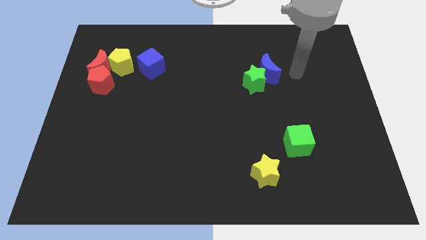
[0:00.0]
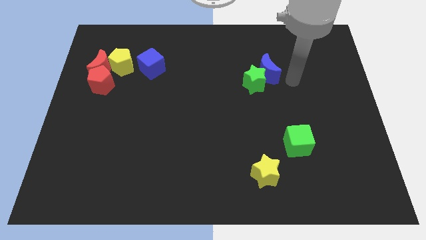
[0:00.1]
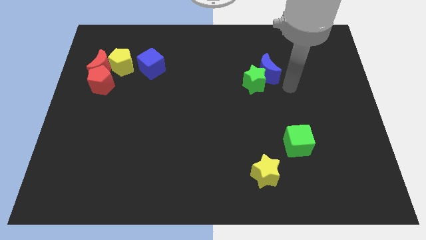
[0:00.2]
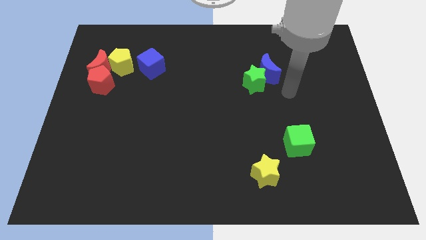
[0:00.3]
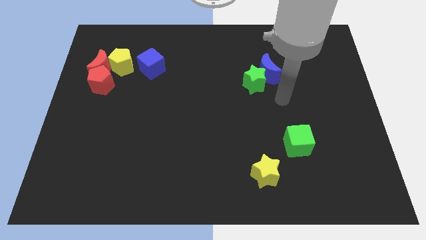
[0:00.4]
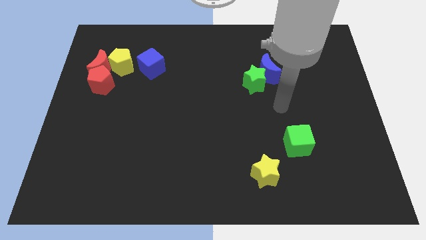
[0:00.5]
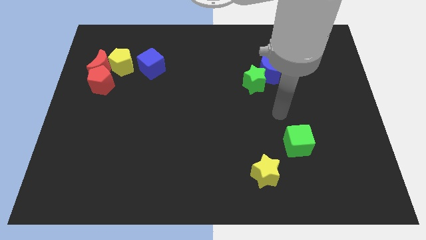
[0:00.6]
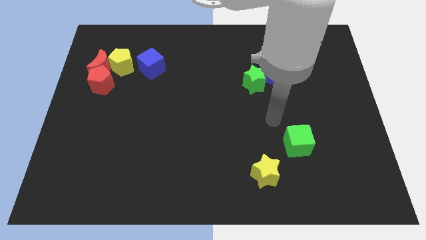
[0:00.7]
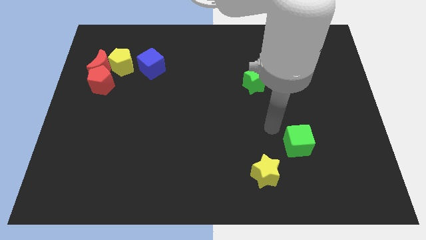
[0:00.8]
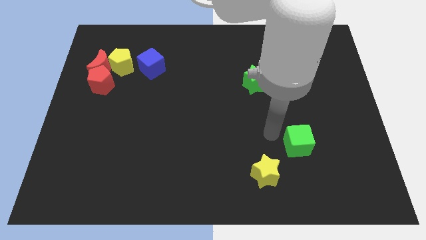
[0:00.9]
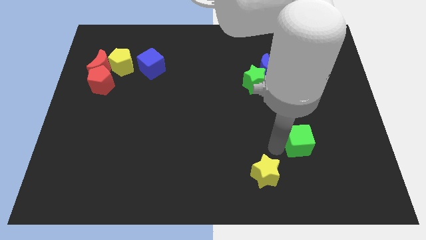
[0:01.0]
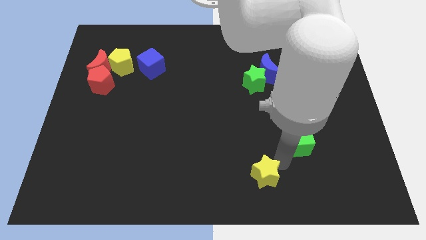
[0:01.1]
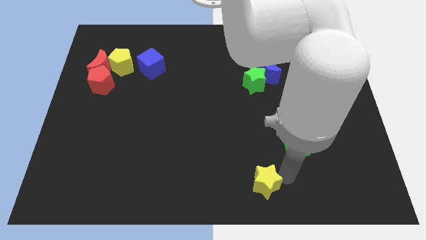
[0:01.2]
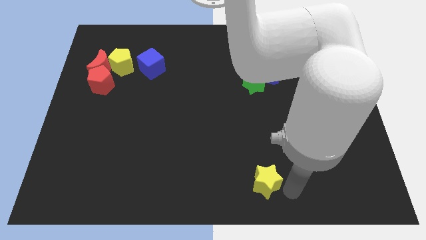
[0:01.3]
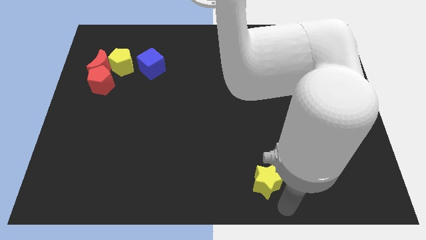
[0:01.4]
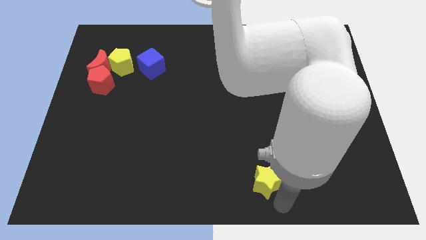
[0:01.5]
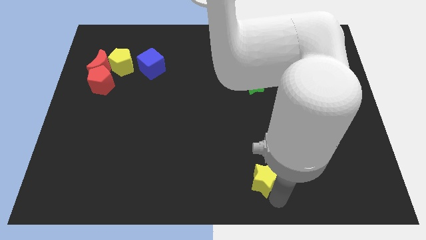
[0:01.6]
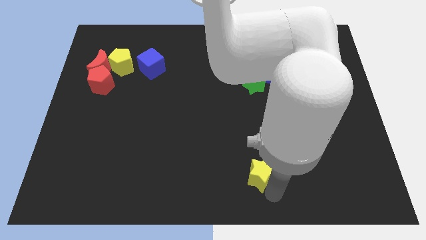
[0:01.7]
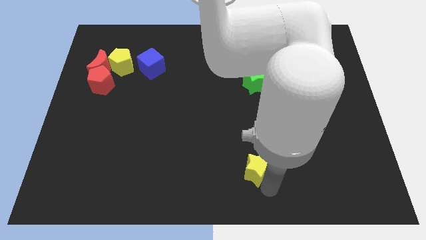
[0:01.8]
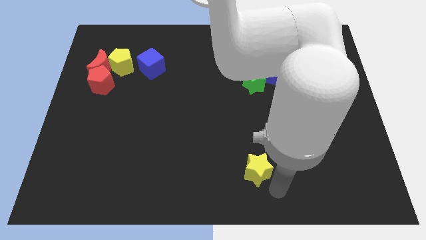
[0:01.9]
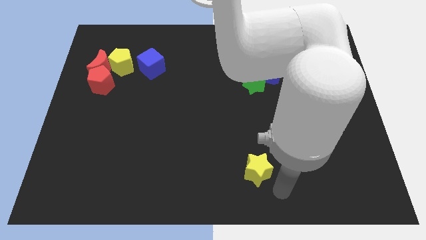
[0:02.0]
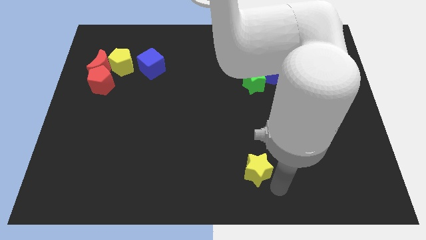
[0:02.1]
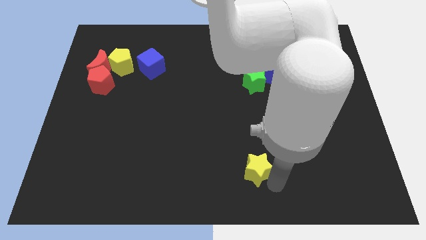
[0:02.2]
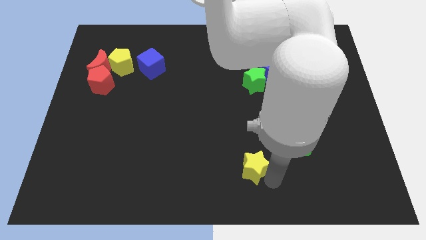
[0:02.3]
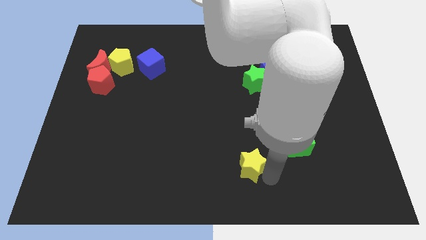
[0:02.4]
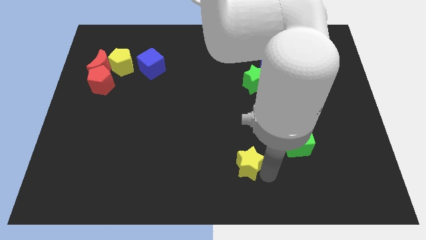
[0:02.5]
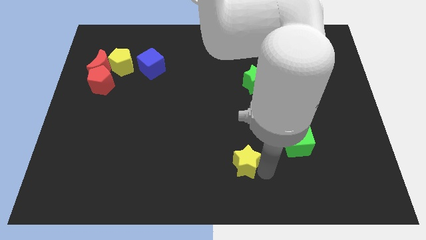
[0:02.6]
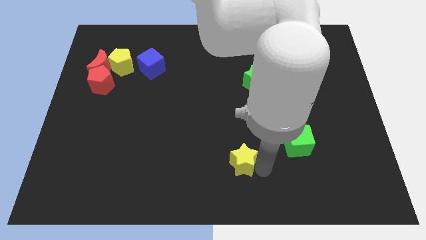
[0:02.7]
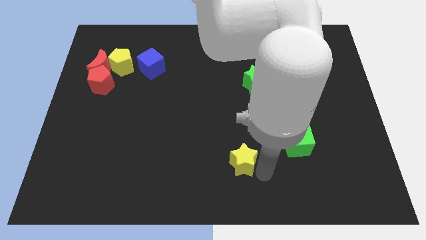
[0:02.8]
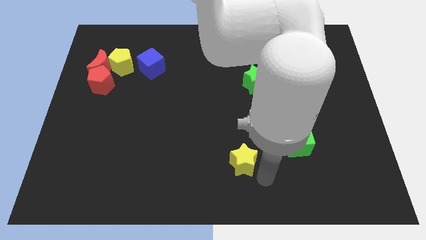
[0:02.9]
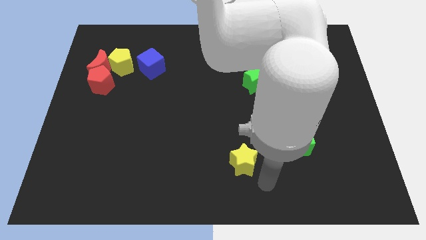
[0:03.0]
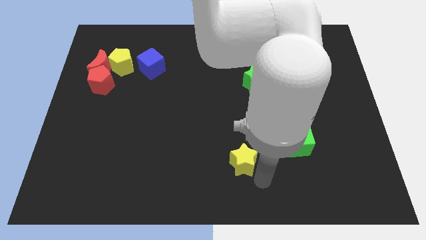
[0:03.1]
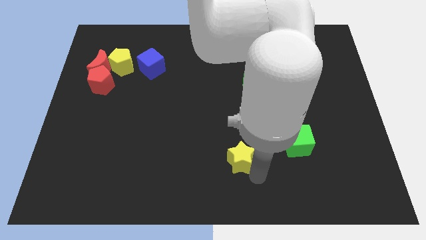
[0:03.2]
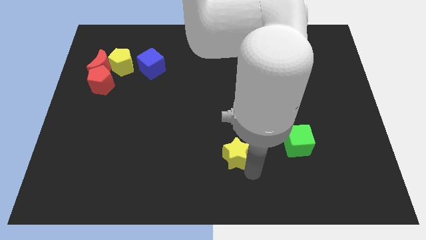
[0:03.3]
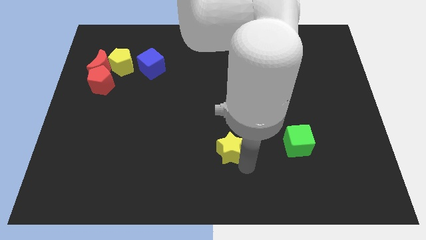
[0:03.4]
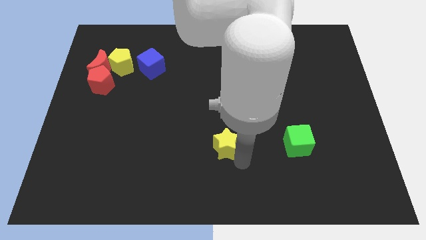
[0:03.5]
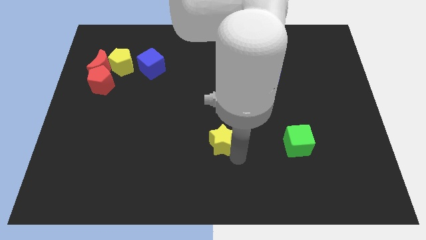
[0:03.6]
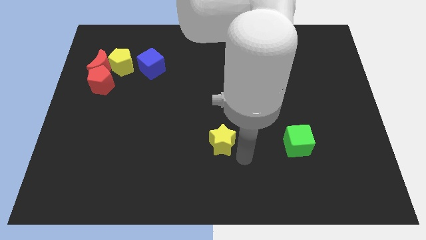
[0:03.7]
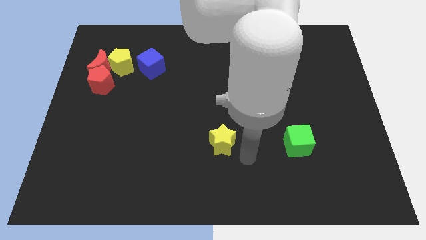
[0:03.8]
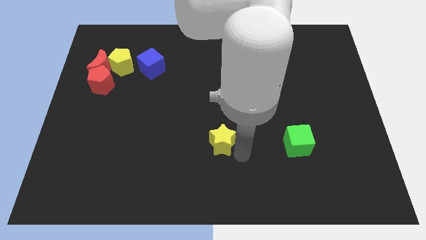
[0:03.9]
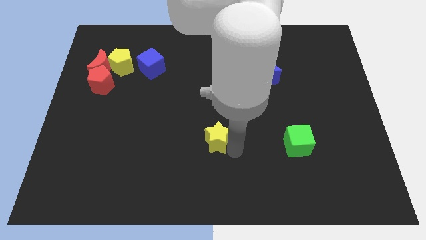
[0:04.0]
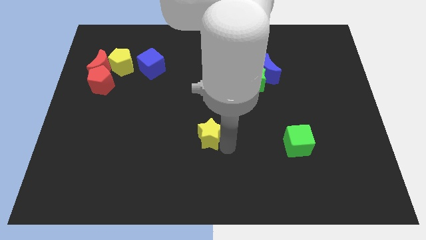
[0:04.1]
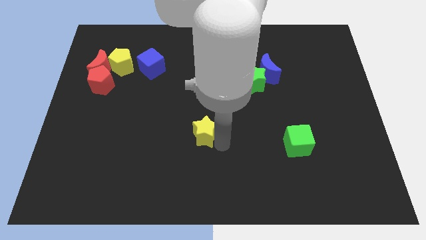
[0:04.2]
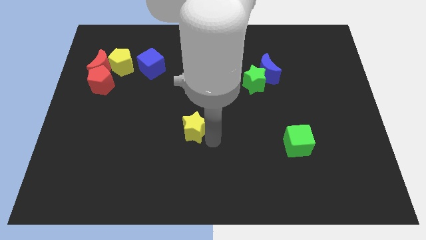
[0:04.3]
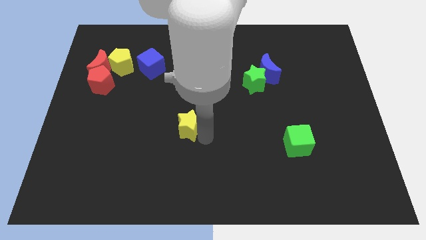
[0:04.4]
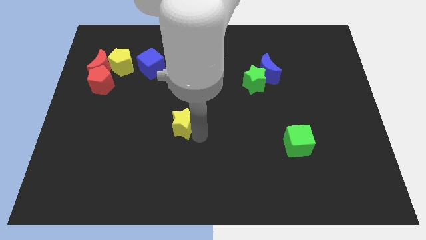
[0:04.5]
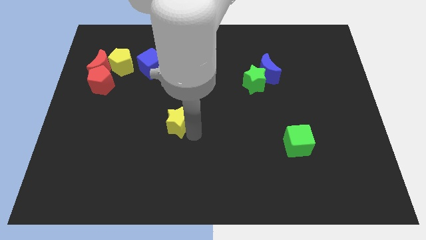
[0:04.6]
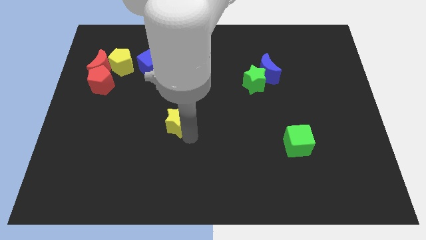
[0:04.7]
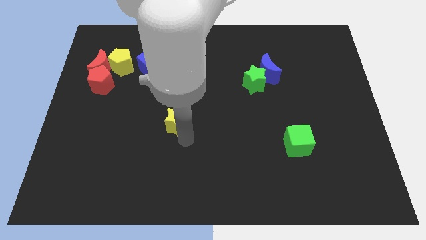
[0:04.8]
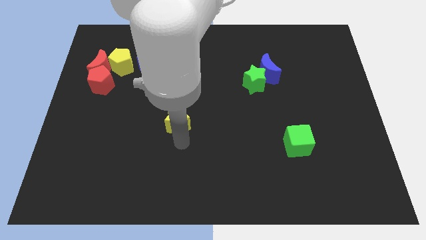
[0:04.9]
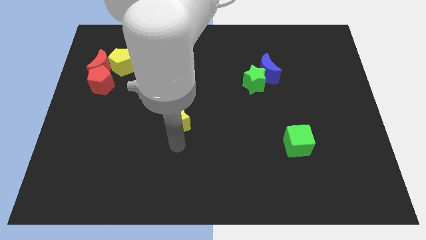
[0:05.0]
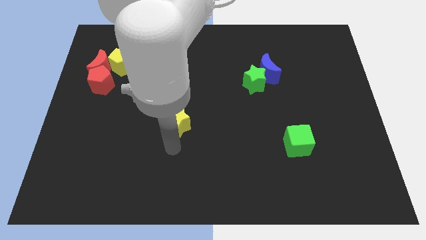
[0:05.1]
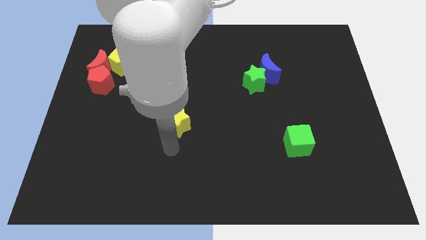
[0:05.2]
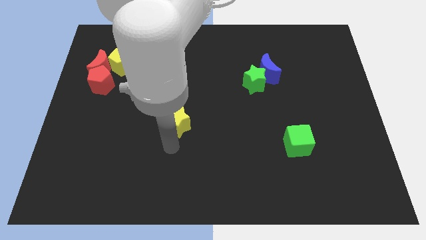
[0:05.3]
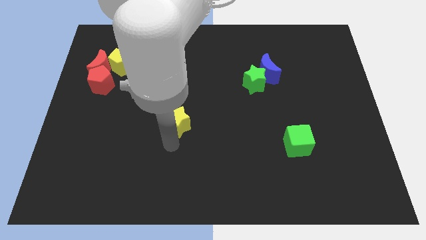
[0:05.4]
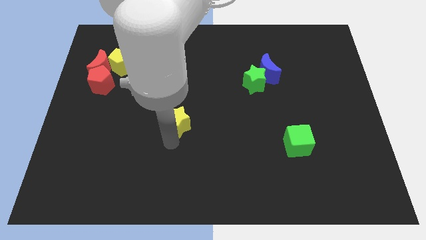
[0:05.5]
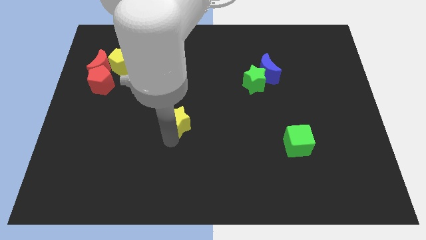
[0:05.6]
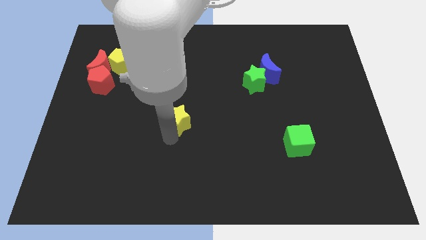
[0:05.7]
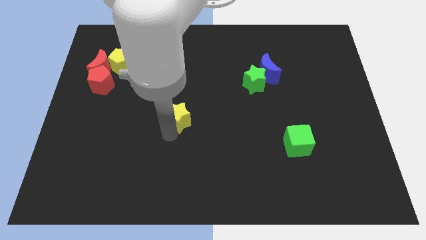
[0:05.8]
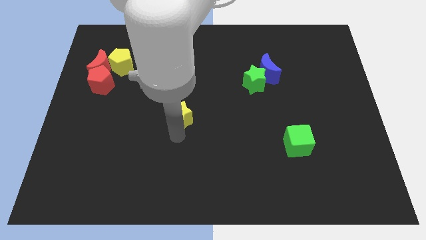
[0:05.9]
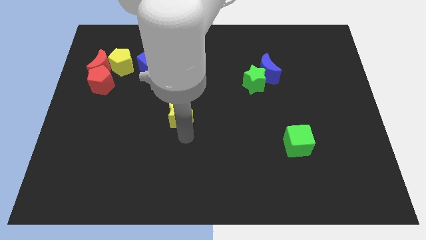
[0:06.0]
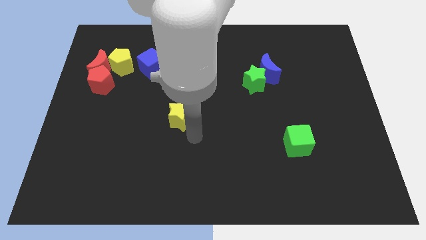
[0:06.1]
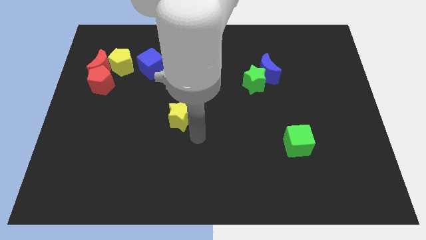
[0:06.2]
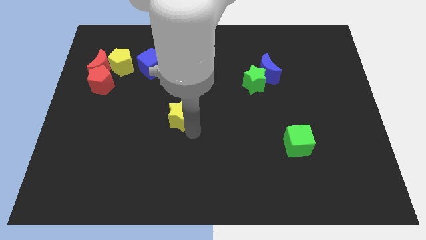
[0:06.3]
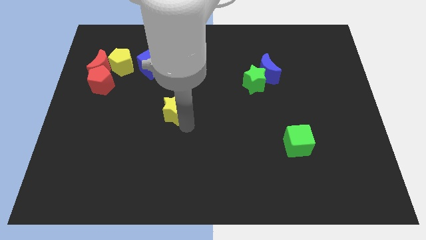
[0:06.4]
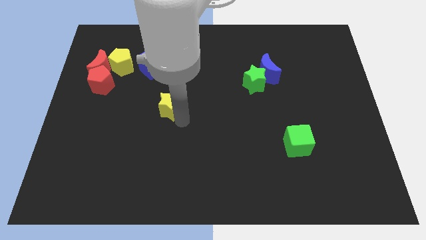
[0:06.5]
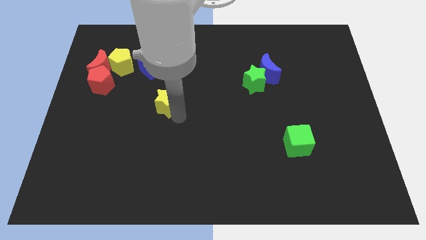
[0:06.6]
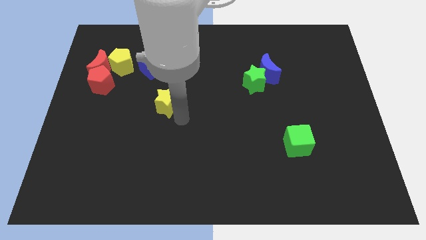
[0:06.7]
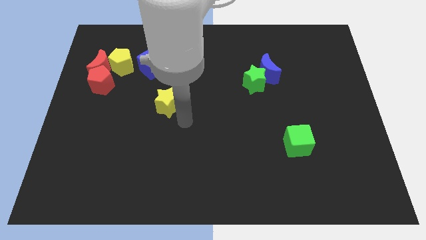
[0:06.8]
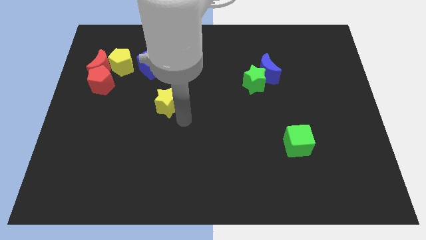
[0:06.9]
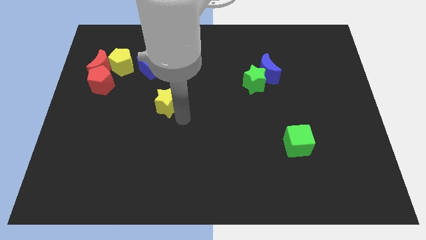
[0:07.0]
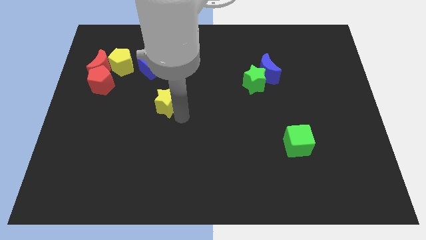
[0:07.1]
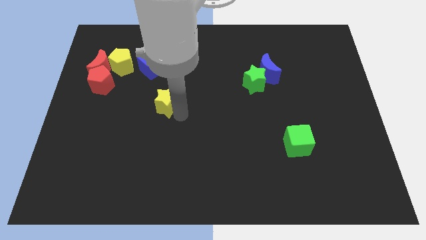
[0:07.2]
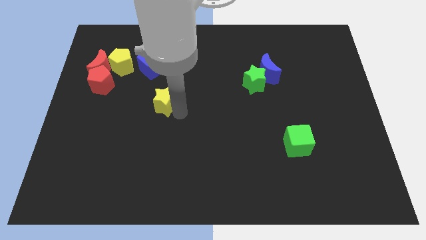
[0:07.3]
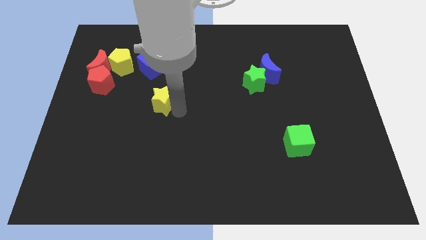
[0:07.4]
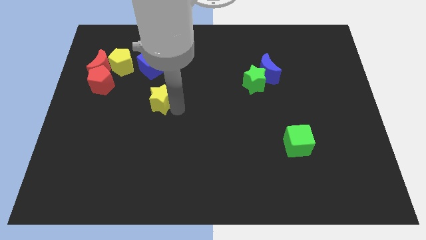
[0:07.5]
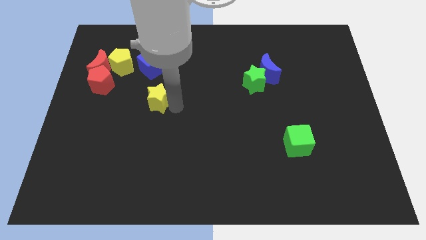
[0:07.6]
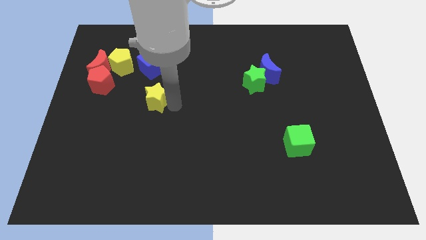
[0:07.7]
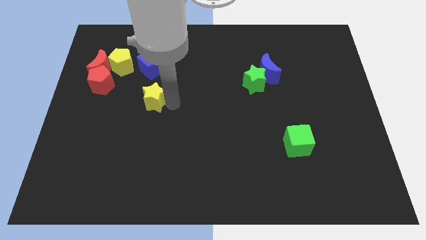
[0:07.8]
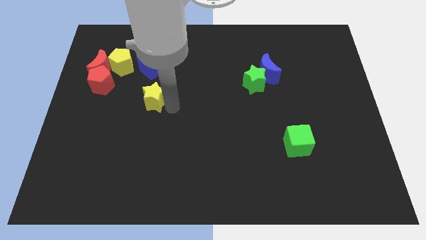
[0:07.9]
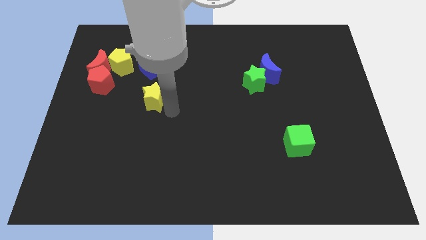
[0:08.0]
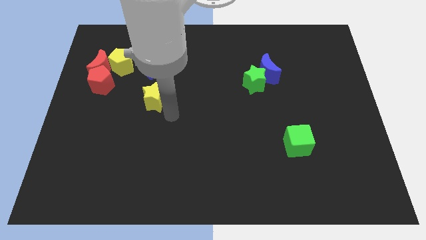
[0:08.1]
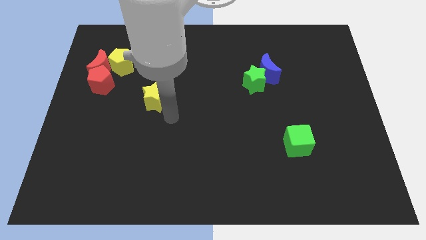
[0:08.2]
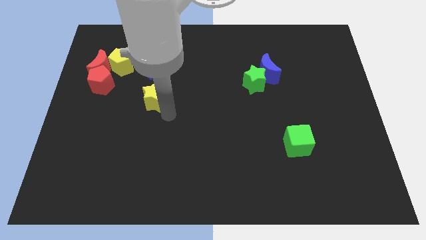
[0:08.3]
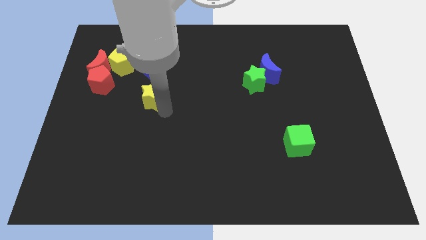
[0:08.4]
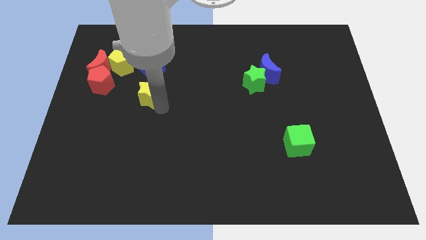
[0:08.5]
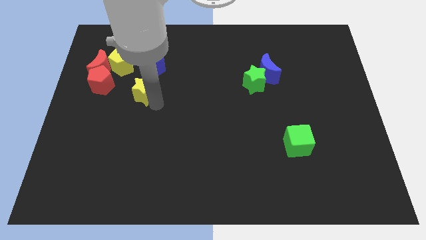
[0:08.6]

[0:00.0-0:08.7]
put the yellow star to the bottom right side of the yellow pentagon
